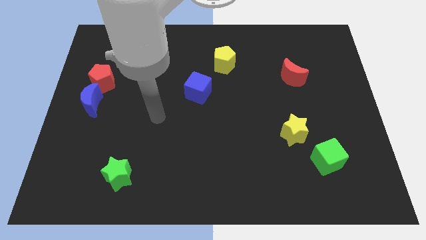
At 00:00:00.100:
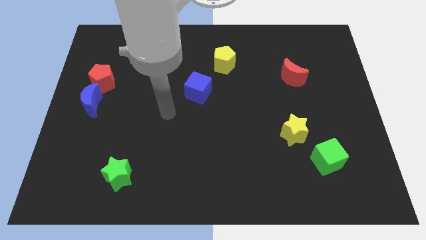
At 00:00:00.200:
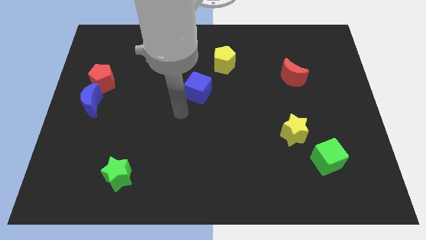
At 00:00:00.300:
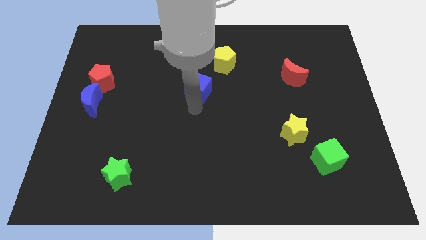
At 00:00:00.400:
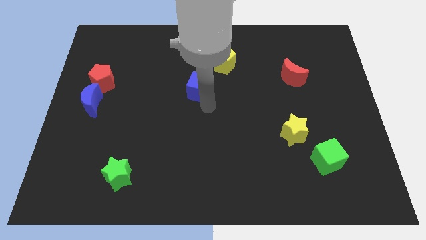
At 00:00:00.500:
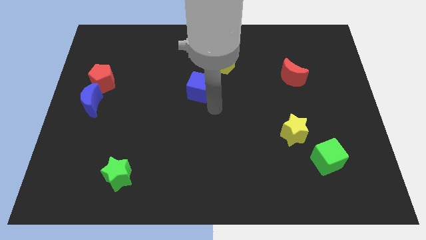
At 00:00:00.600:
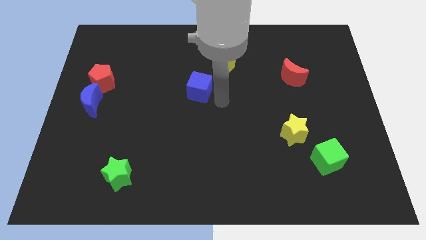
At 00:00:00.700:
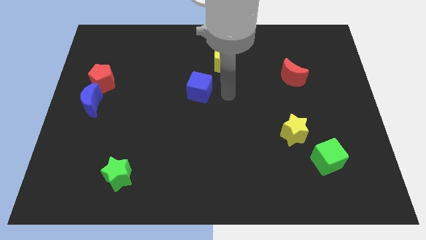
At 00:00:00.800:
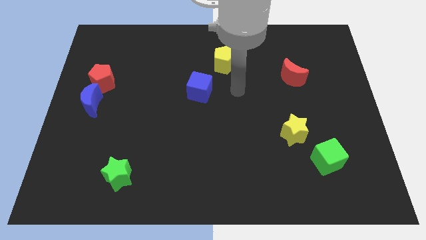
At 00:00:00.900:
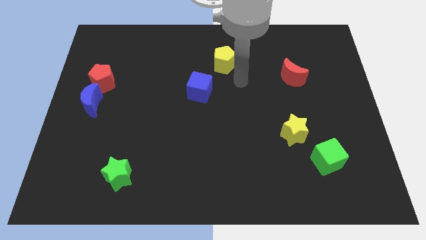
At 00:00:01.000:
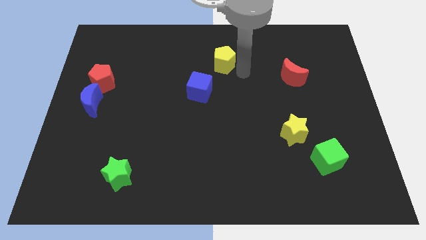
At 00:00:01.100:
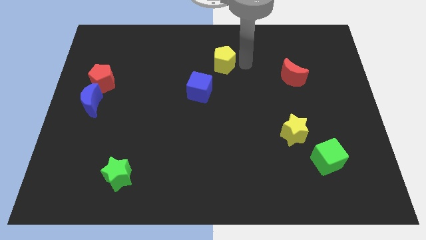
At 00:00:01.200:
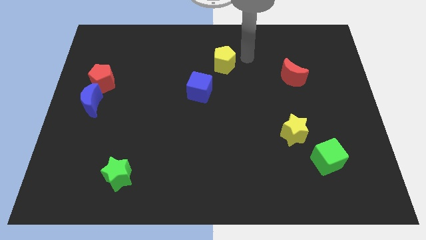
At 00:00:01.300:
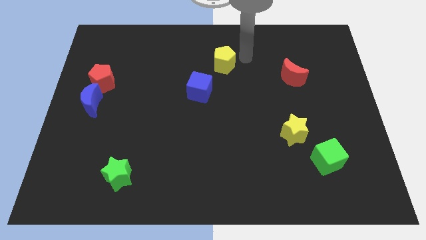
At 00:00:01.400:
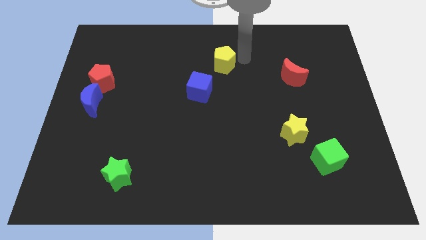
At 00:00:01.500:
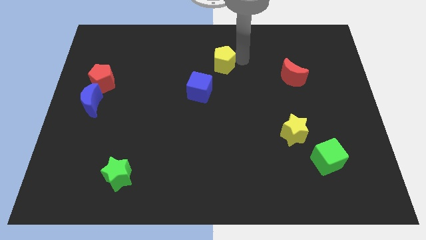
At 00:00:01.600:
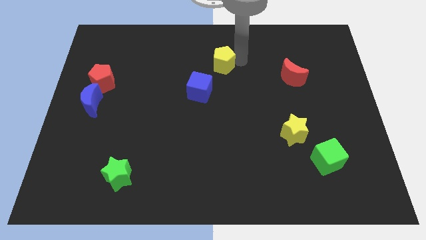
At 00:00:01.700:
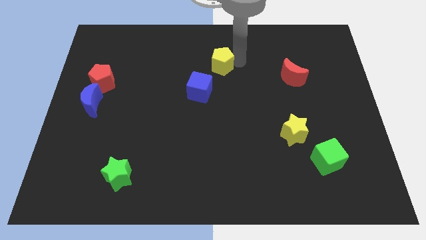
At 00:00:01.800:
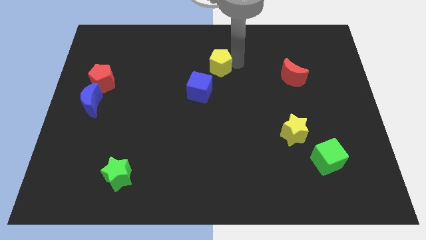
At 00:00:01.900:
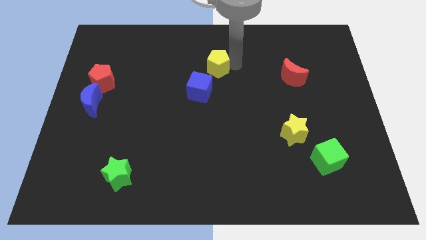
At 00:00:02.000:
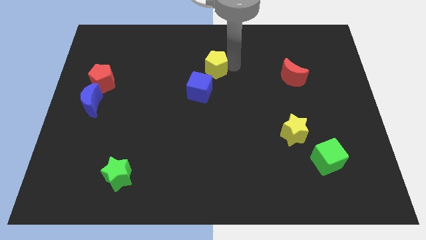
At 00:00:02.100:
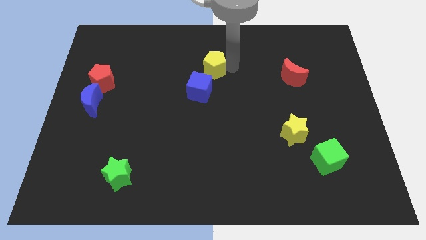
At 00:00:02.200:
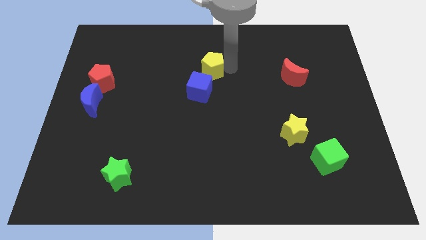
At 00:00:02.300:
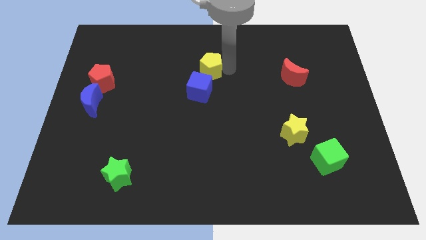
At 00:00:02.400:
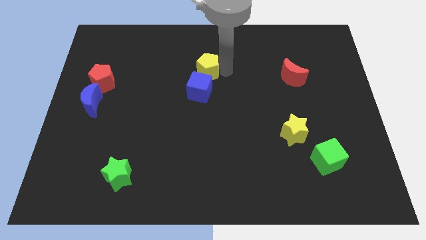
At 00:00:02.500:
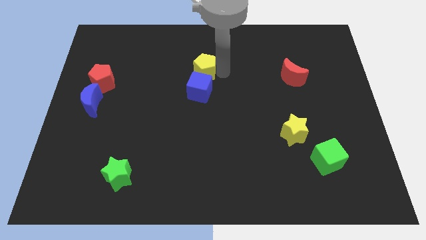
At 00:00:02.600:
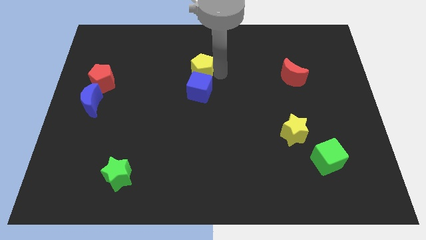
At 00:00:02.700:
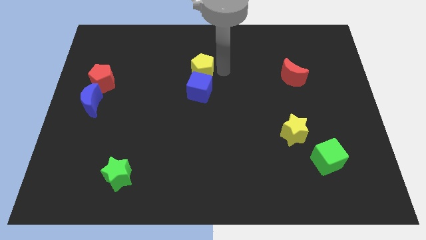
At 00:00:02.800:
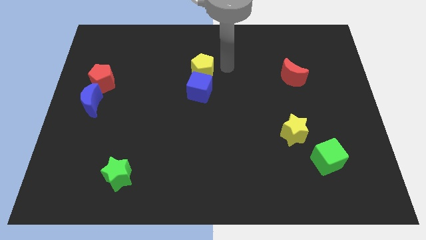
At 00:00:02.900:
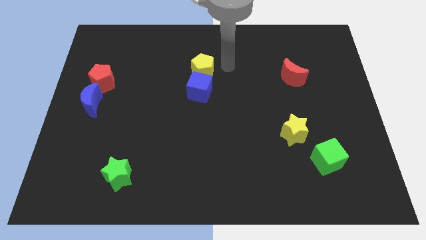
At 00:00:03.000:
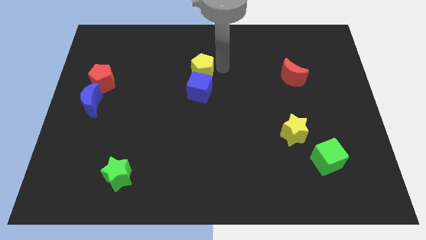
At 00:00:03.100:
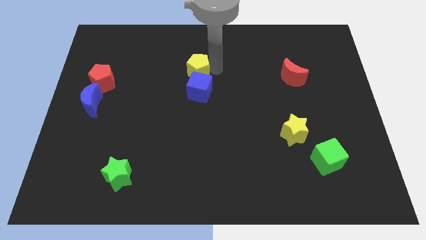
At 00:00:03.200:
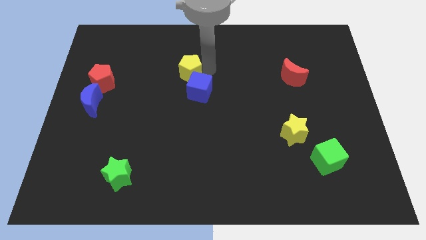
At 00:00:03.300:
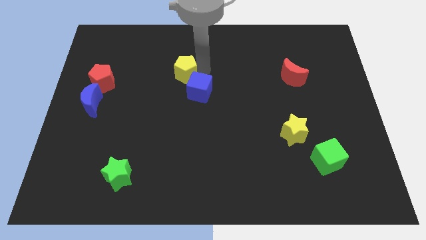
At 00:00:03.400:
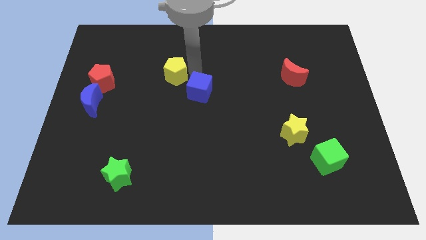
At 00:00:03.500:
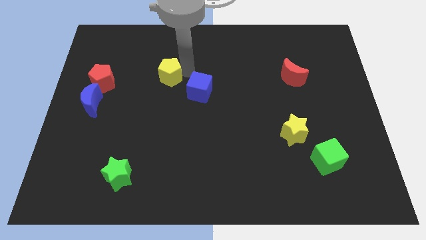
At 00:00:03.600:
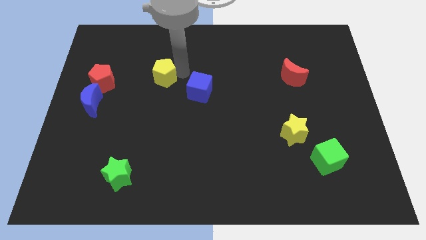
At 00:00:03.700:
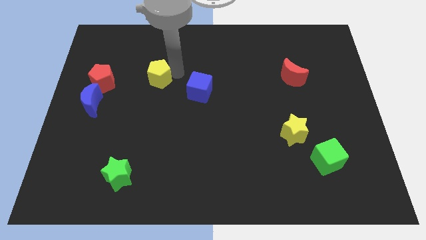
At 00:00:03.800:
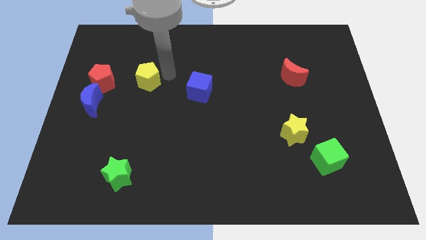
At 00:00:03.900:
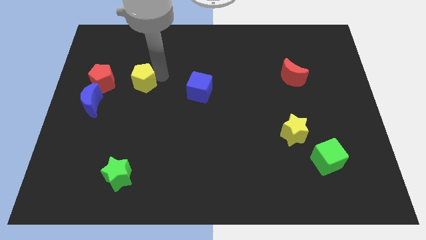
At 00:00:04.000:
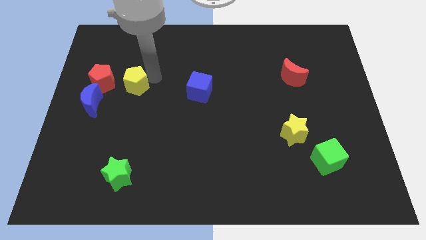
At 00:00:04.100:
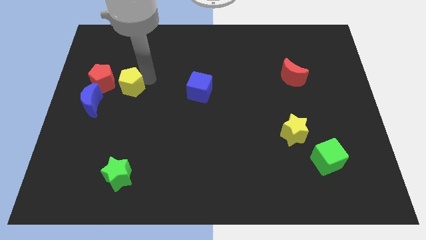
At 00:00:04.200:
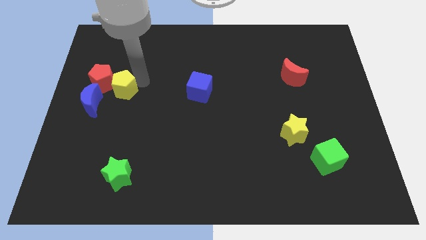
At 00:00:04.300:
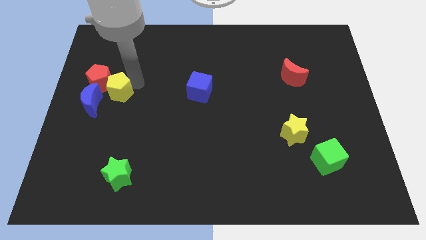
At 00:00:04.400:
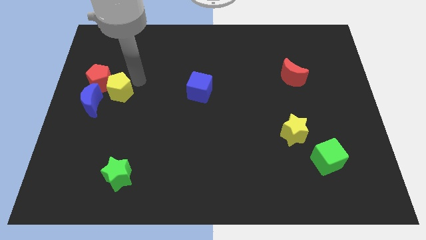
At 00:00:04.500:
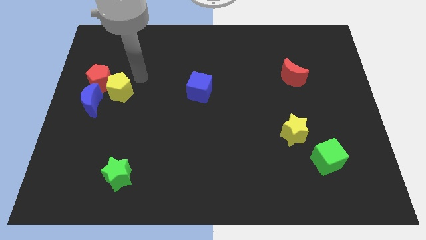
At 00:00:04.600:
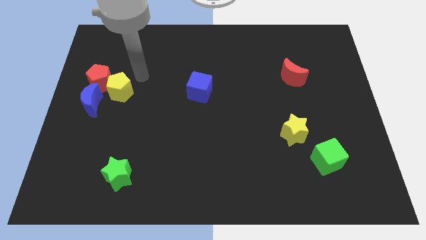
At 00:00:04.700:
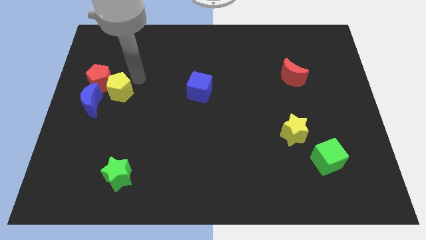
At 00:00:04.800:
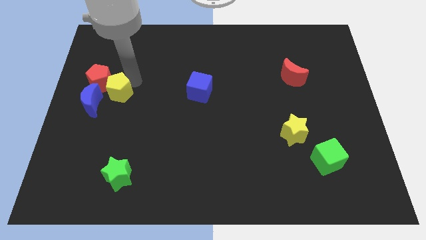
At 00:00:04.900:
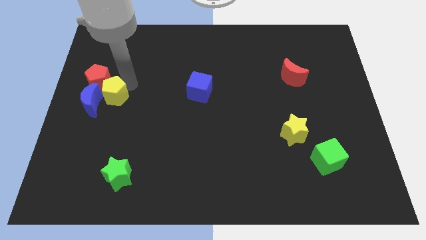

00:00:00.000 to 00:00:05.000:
put the yellow pentagon close to the blue moon

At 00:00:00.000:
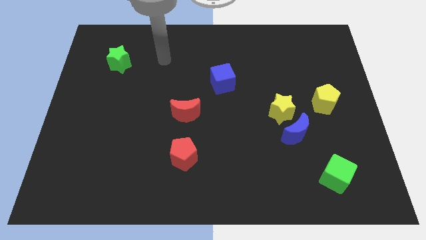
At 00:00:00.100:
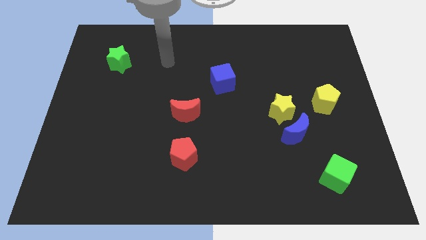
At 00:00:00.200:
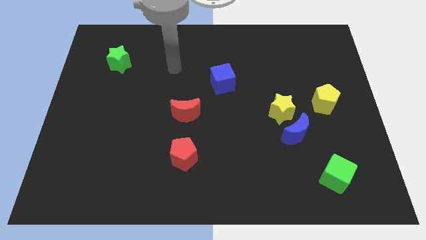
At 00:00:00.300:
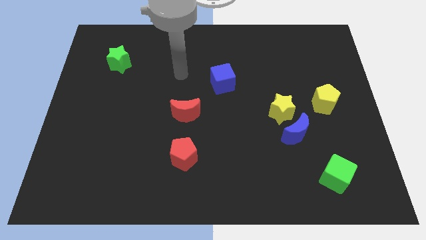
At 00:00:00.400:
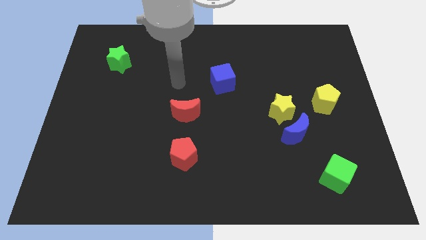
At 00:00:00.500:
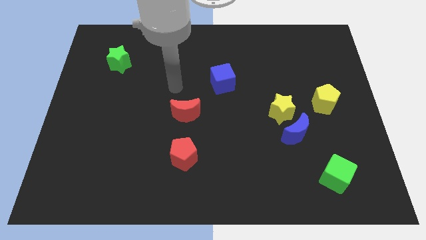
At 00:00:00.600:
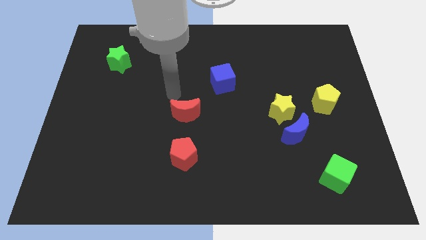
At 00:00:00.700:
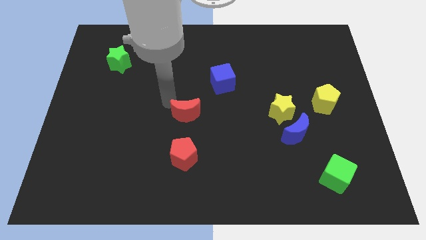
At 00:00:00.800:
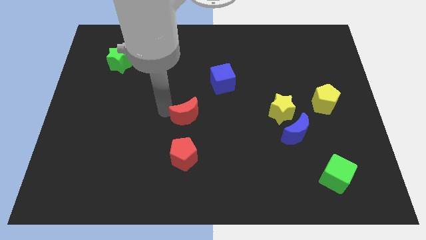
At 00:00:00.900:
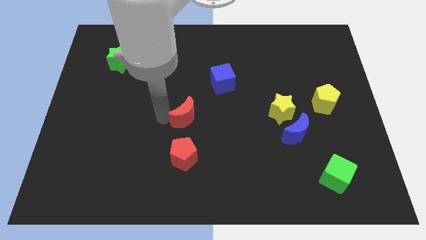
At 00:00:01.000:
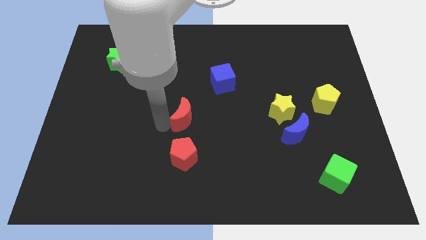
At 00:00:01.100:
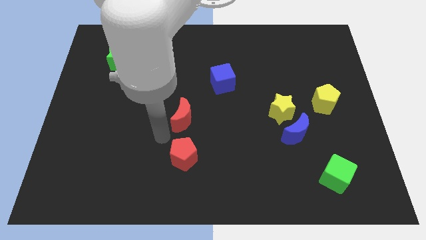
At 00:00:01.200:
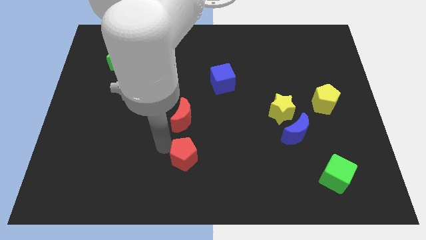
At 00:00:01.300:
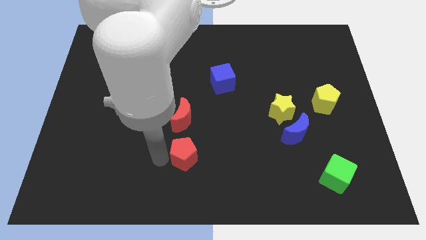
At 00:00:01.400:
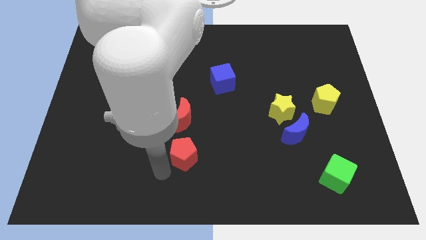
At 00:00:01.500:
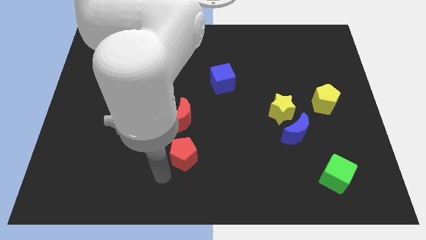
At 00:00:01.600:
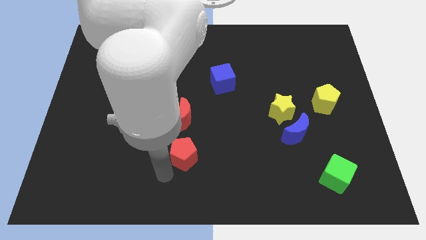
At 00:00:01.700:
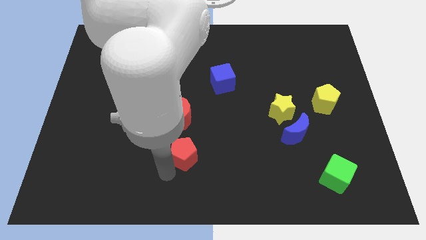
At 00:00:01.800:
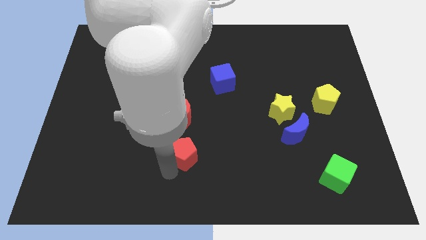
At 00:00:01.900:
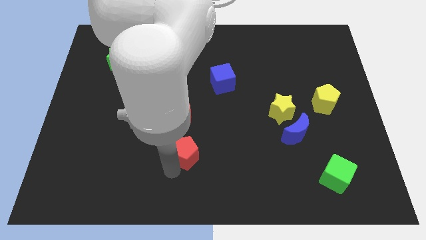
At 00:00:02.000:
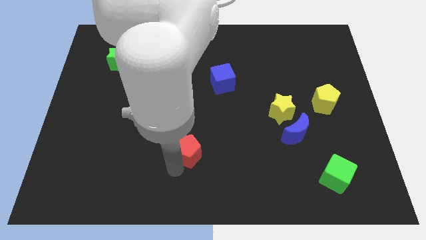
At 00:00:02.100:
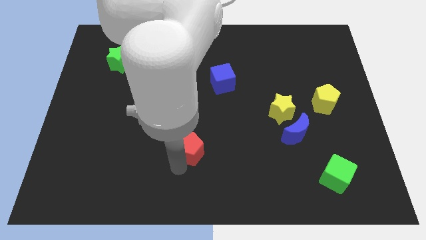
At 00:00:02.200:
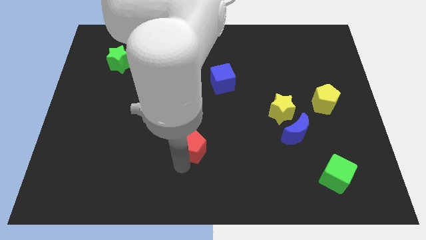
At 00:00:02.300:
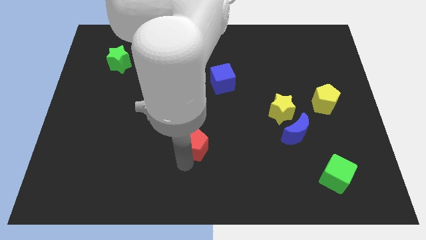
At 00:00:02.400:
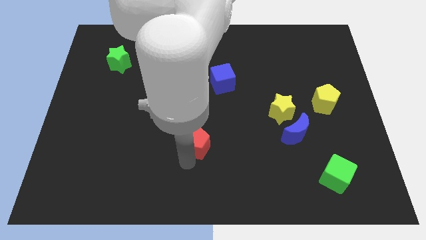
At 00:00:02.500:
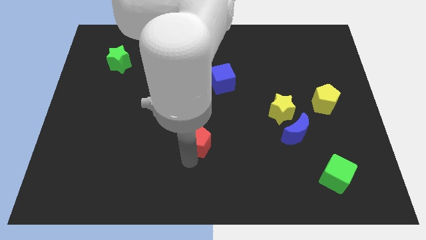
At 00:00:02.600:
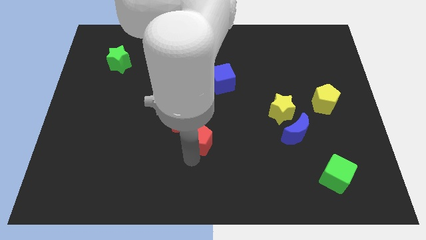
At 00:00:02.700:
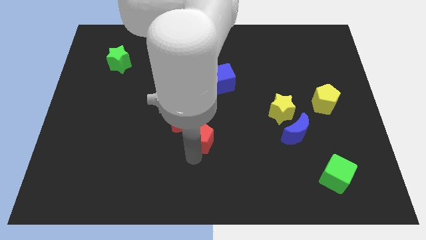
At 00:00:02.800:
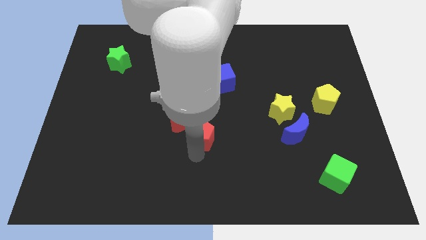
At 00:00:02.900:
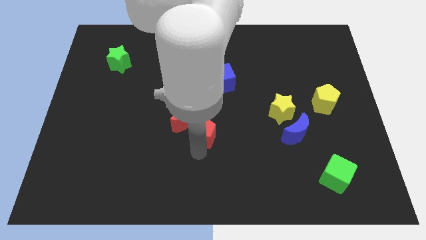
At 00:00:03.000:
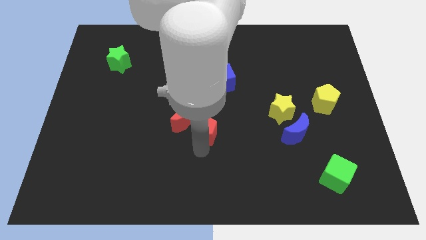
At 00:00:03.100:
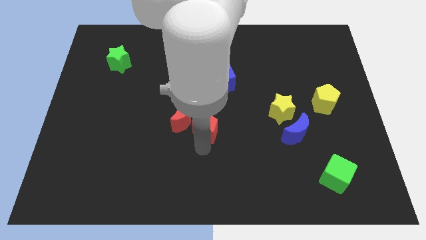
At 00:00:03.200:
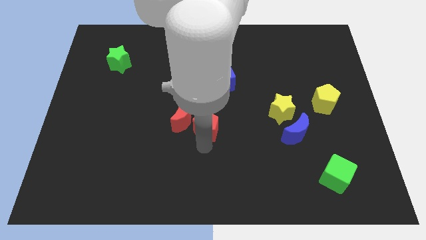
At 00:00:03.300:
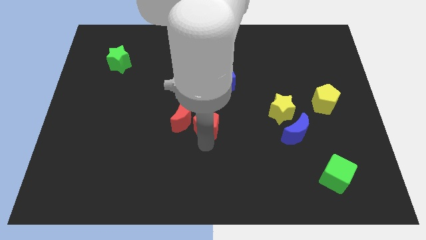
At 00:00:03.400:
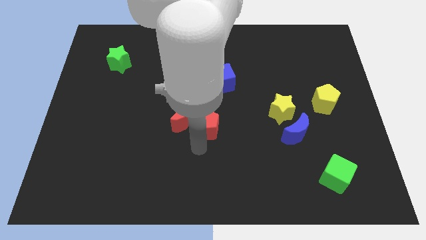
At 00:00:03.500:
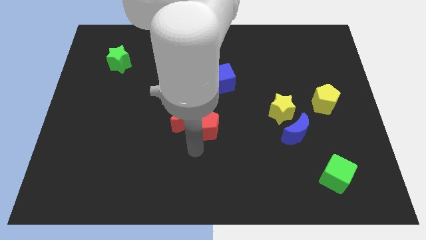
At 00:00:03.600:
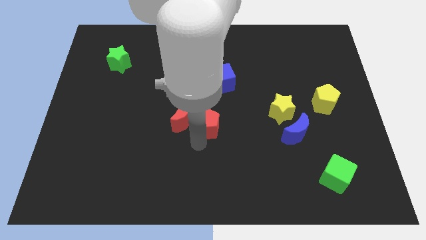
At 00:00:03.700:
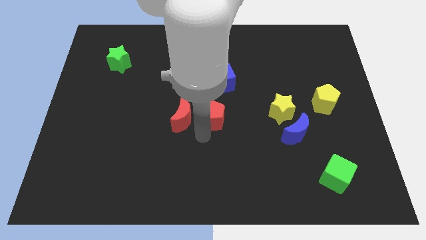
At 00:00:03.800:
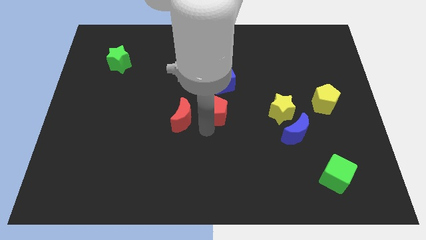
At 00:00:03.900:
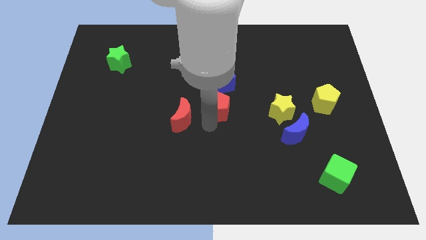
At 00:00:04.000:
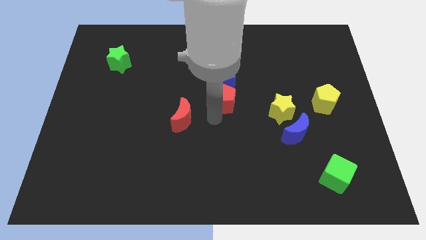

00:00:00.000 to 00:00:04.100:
slide the red pentagon next to the blue cube
